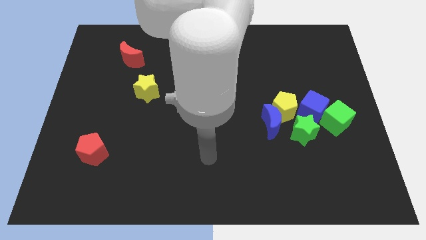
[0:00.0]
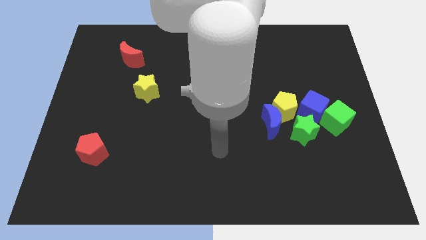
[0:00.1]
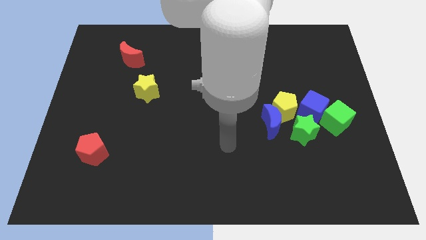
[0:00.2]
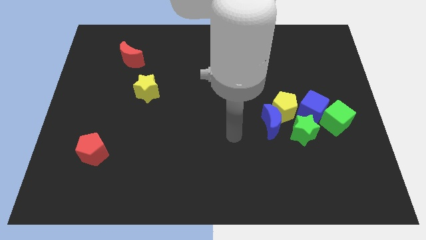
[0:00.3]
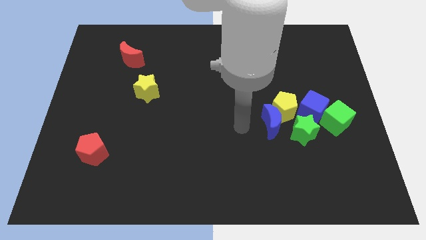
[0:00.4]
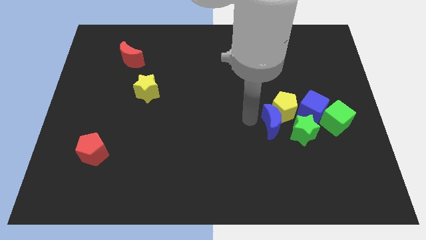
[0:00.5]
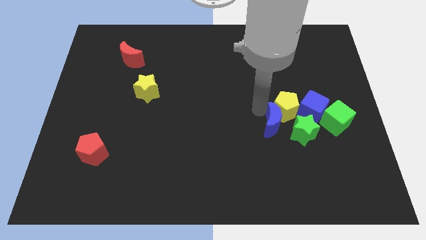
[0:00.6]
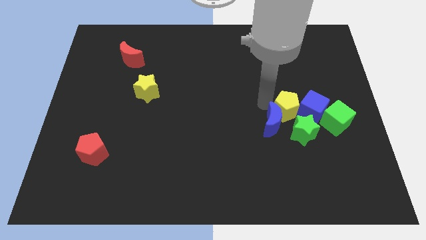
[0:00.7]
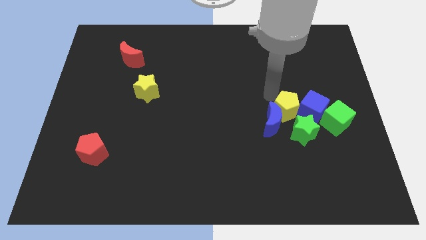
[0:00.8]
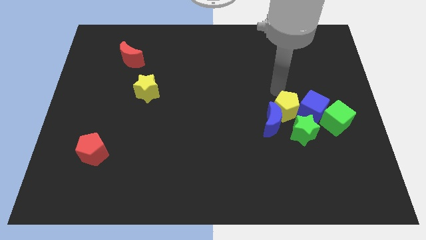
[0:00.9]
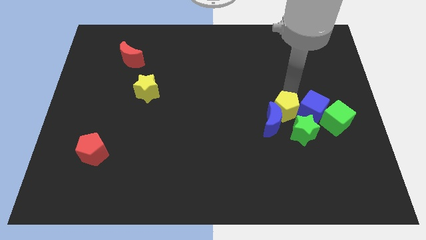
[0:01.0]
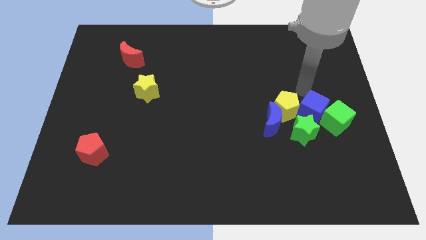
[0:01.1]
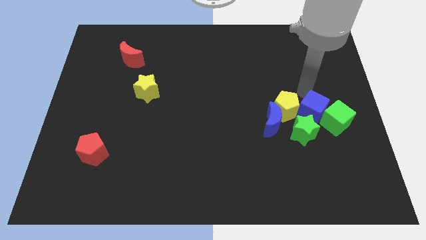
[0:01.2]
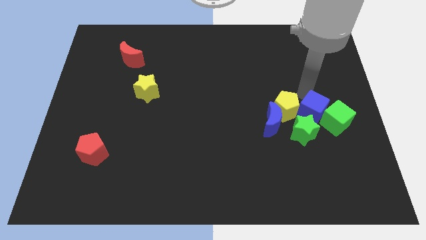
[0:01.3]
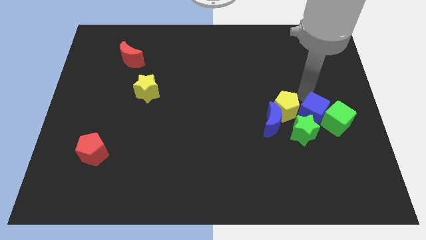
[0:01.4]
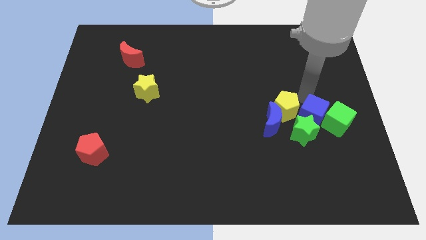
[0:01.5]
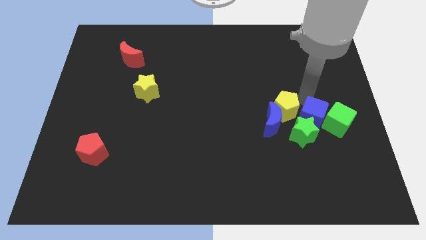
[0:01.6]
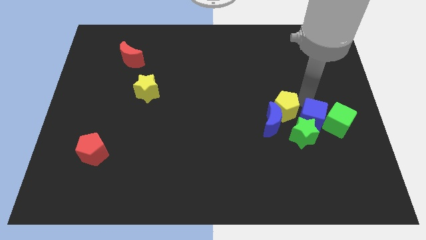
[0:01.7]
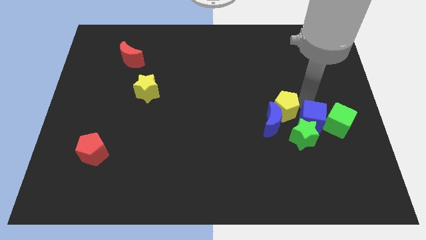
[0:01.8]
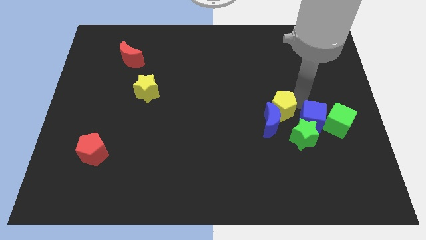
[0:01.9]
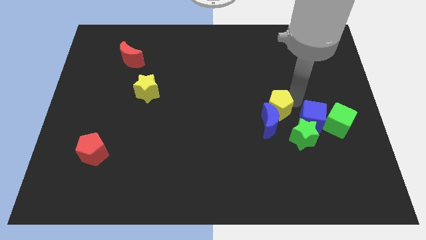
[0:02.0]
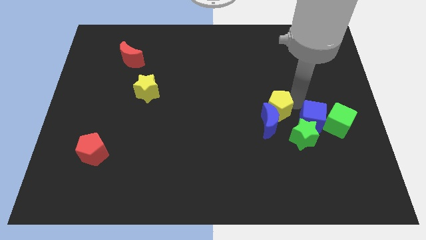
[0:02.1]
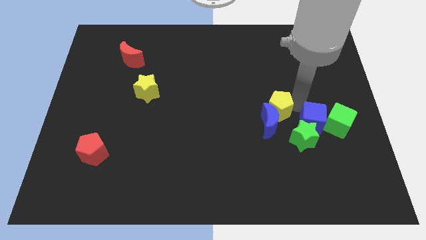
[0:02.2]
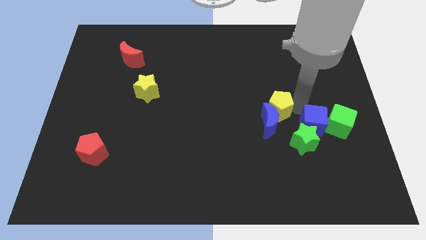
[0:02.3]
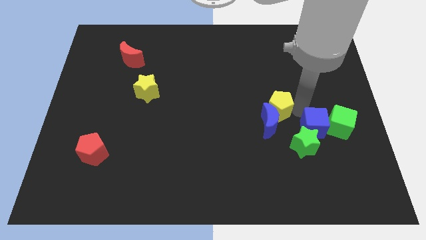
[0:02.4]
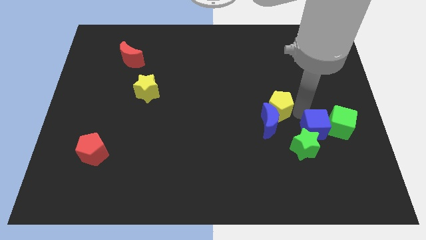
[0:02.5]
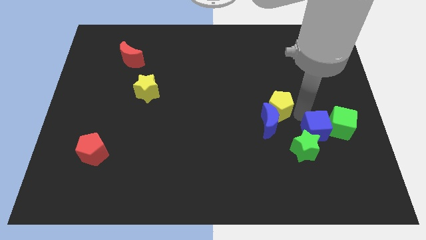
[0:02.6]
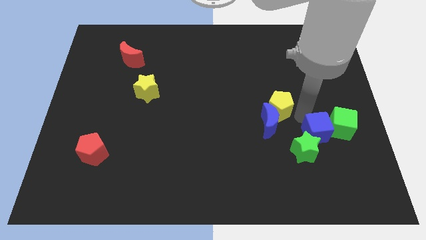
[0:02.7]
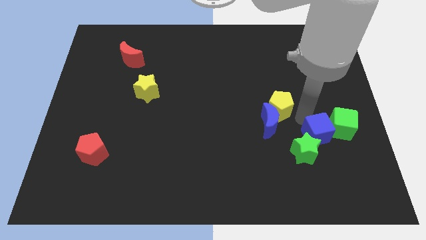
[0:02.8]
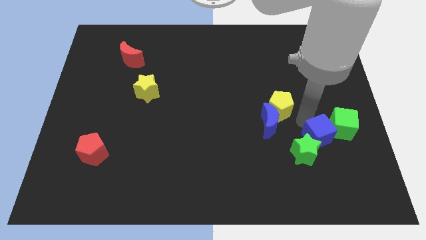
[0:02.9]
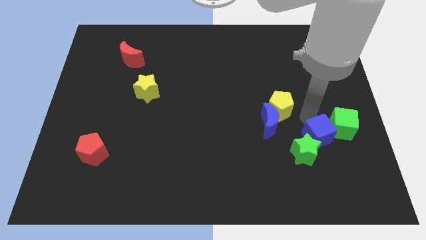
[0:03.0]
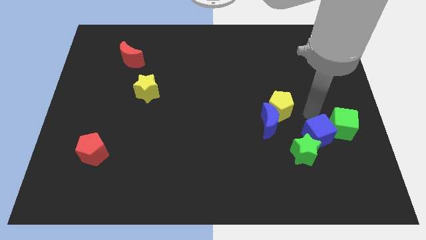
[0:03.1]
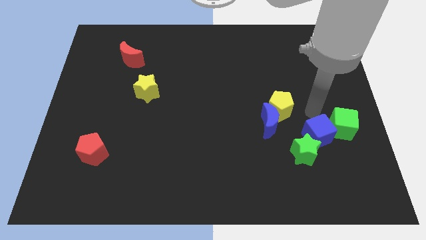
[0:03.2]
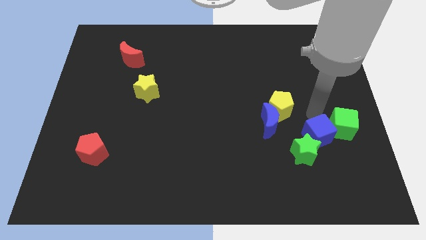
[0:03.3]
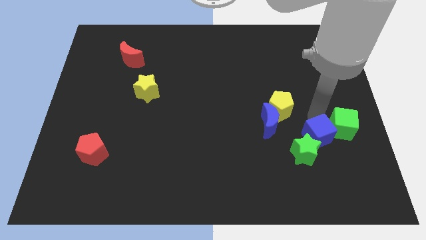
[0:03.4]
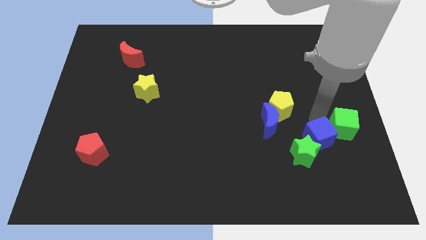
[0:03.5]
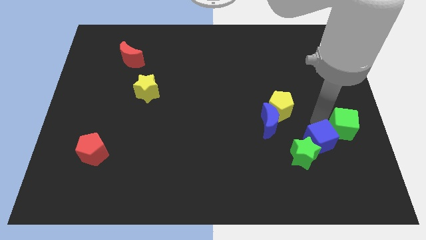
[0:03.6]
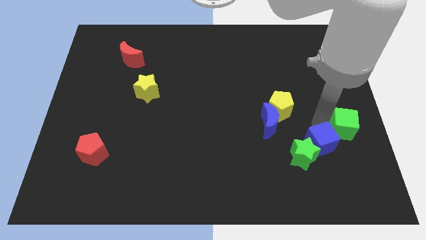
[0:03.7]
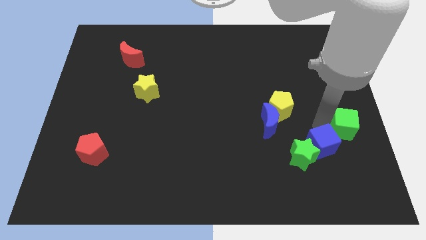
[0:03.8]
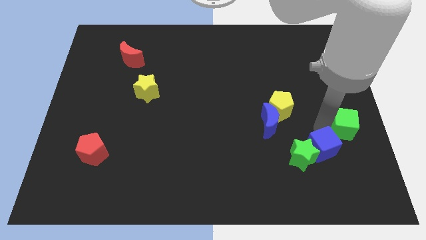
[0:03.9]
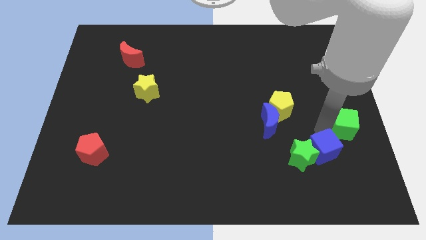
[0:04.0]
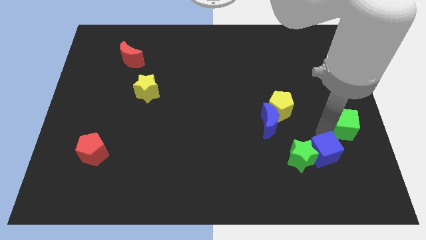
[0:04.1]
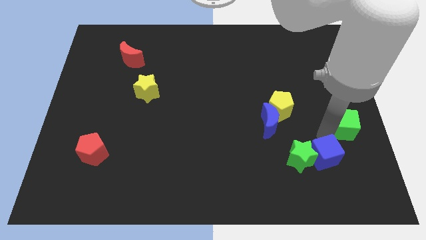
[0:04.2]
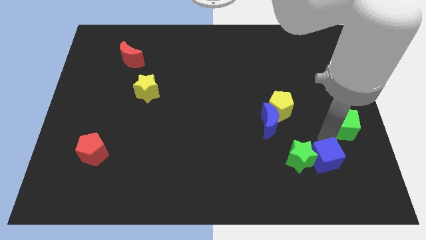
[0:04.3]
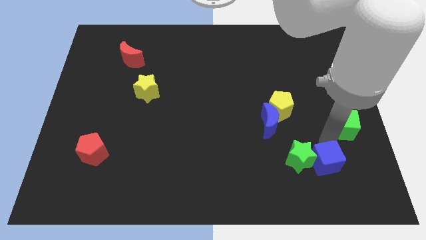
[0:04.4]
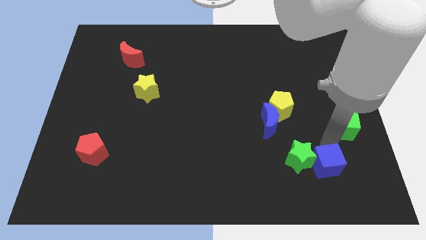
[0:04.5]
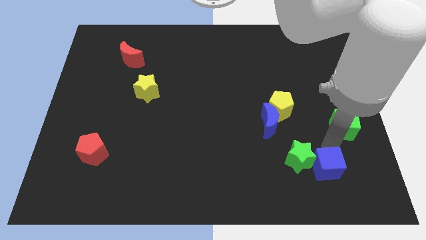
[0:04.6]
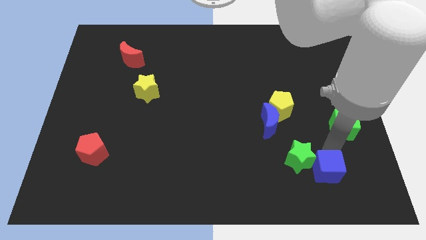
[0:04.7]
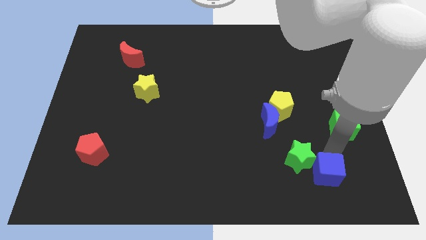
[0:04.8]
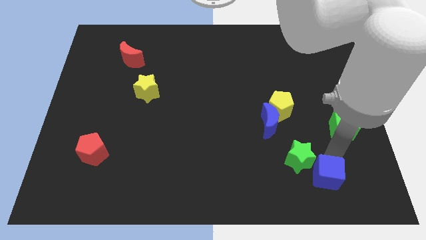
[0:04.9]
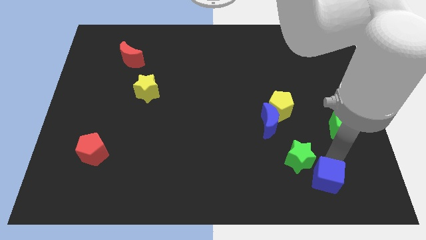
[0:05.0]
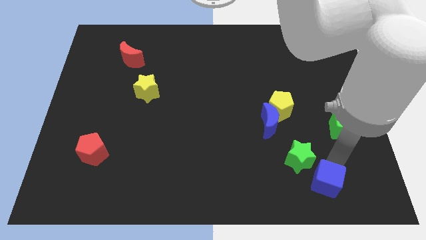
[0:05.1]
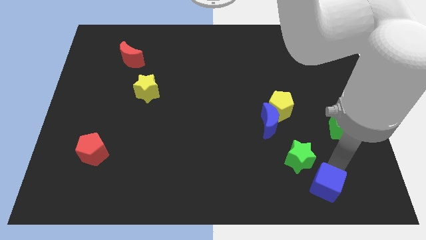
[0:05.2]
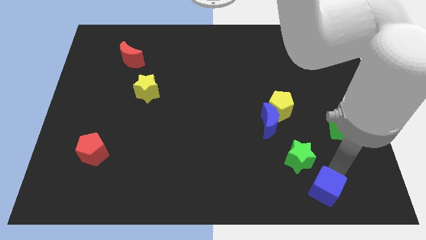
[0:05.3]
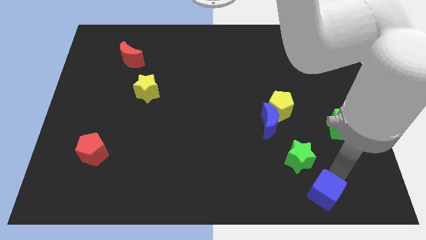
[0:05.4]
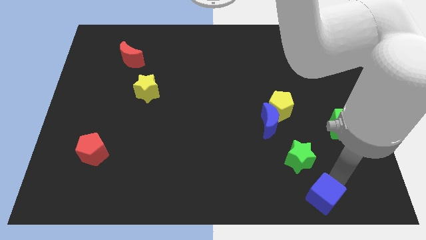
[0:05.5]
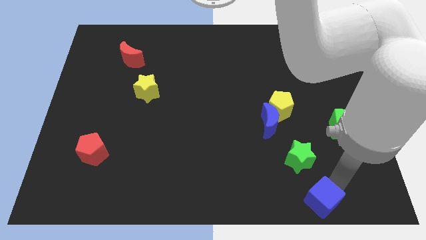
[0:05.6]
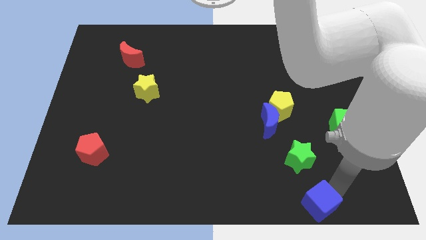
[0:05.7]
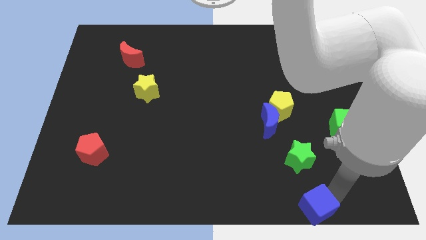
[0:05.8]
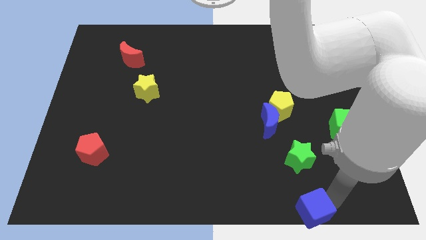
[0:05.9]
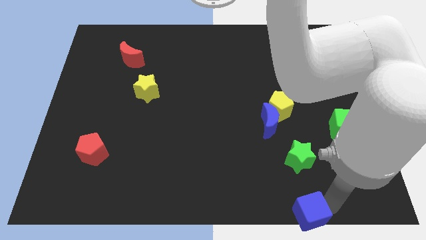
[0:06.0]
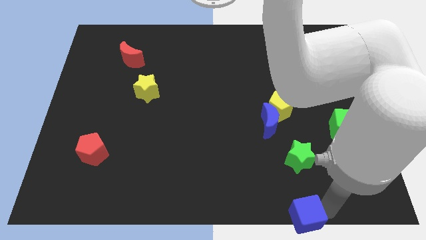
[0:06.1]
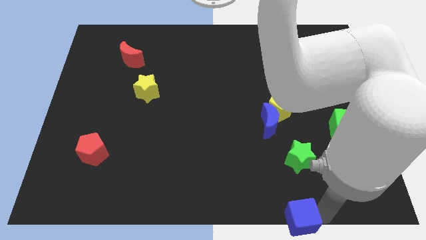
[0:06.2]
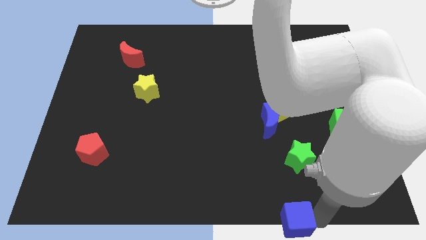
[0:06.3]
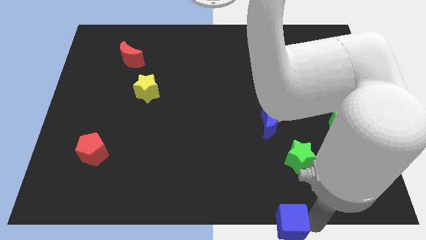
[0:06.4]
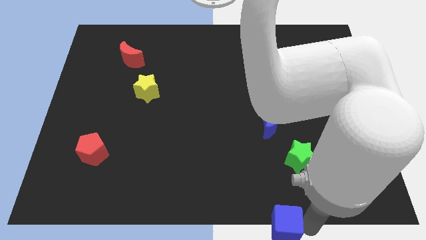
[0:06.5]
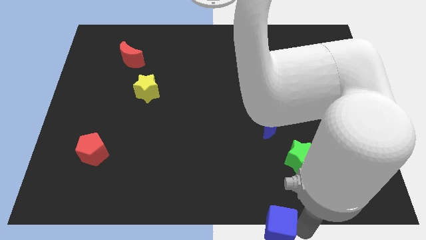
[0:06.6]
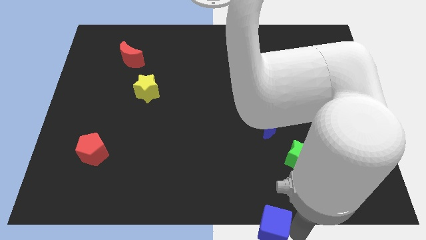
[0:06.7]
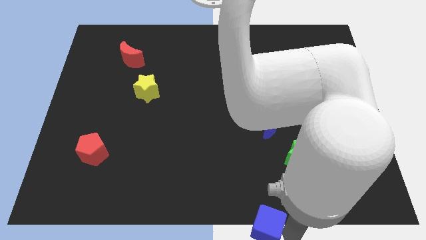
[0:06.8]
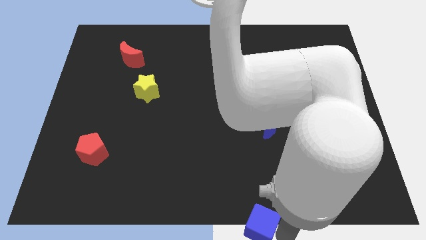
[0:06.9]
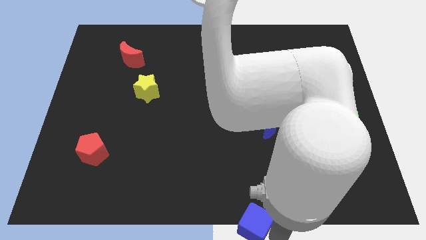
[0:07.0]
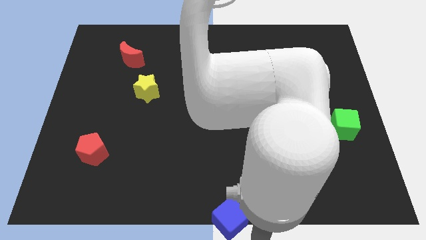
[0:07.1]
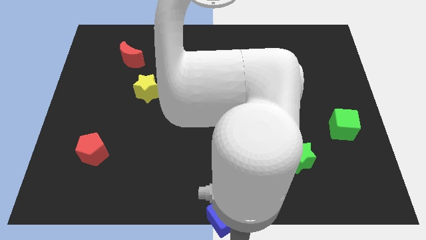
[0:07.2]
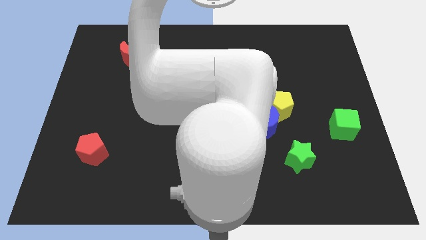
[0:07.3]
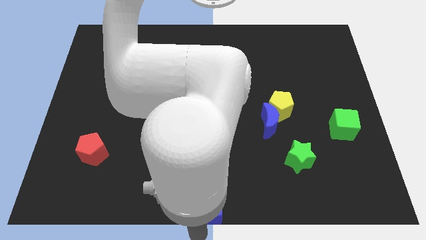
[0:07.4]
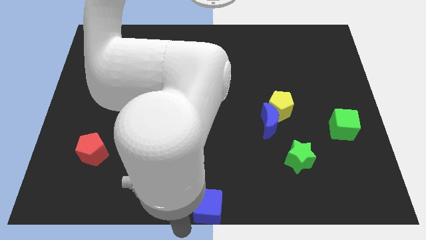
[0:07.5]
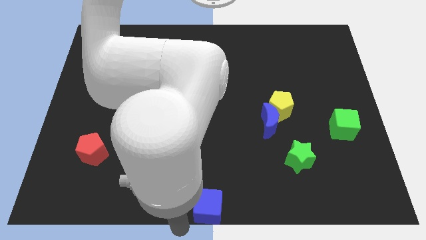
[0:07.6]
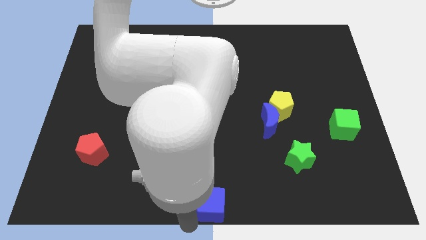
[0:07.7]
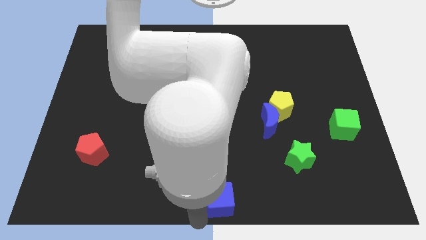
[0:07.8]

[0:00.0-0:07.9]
slide the blue cube somewhat down and to the left diagonally

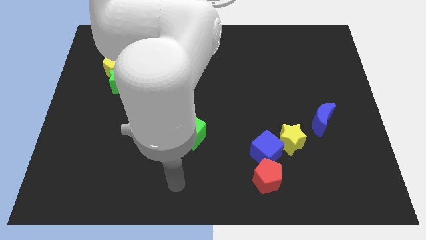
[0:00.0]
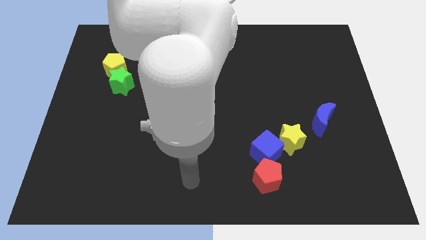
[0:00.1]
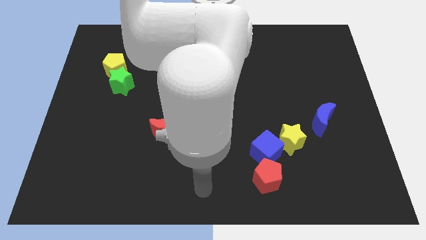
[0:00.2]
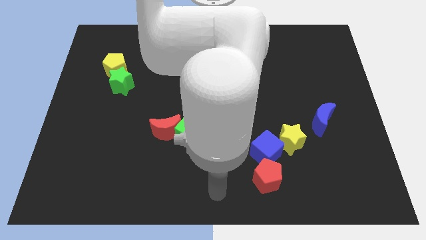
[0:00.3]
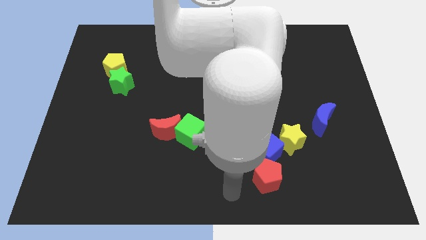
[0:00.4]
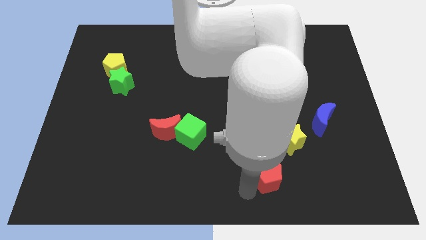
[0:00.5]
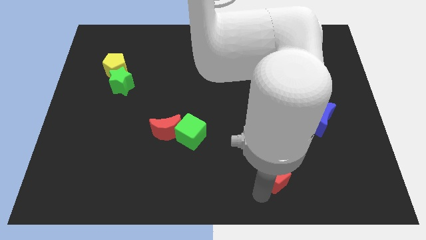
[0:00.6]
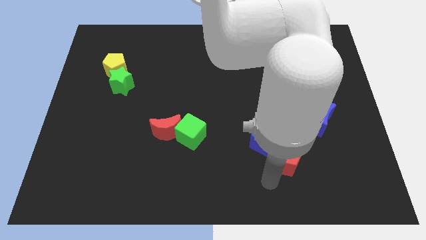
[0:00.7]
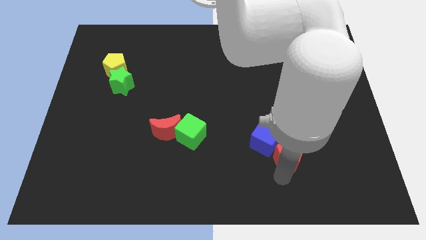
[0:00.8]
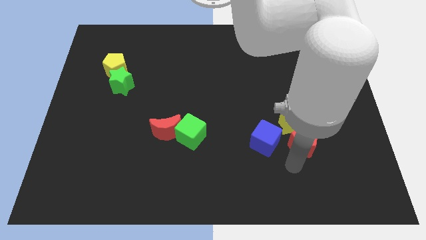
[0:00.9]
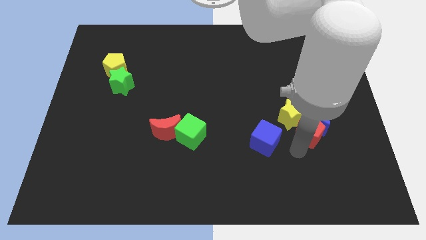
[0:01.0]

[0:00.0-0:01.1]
move the yellow star a little bit up
